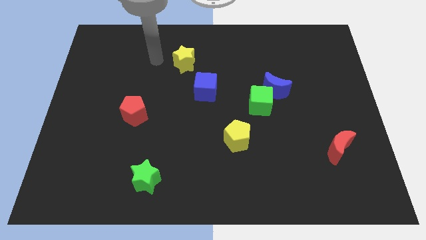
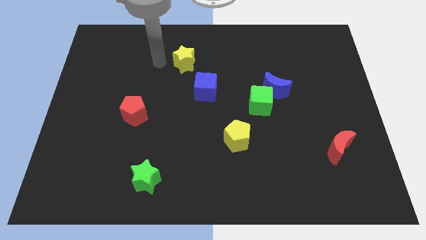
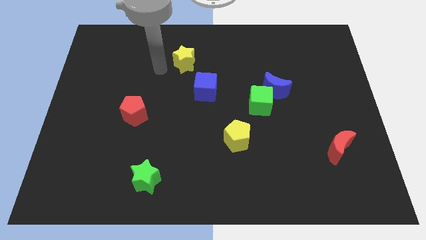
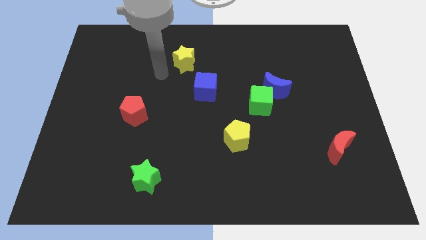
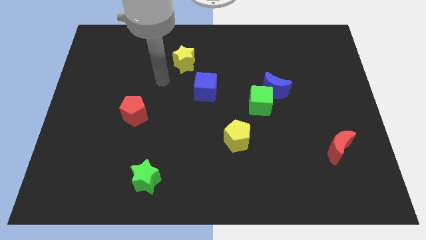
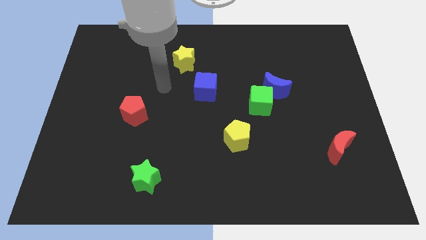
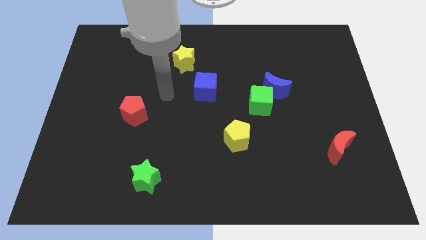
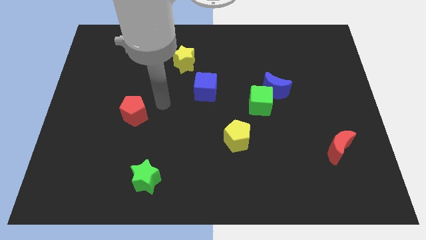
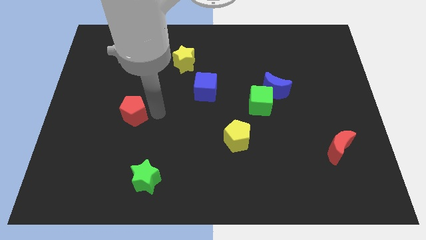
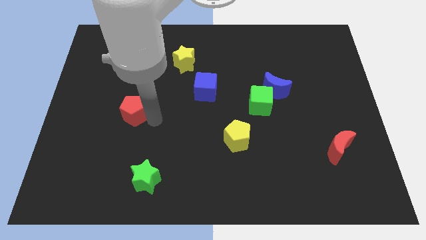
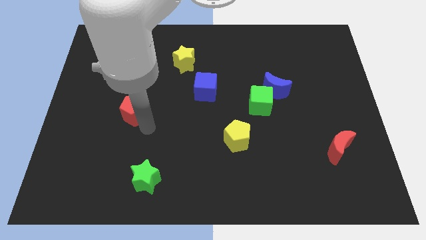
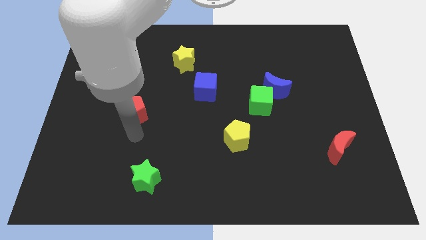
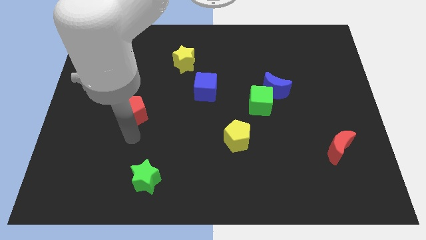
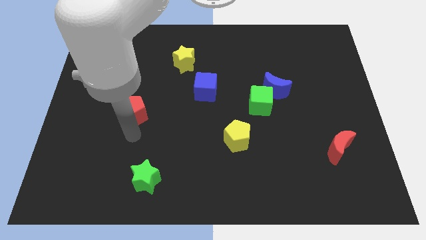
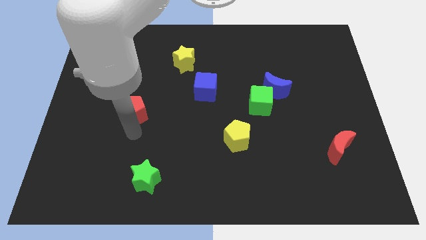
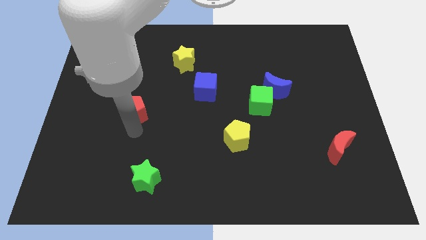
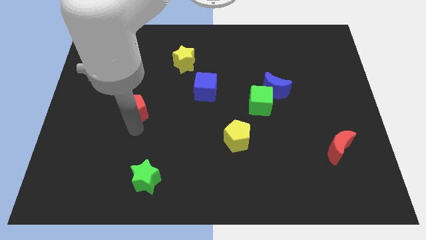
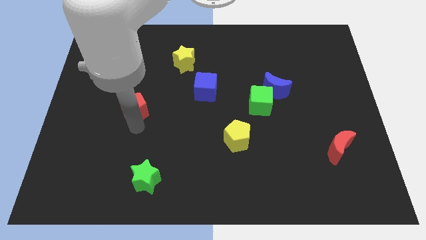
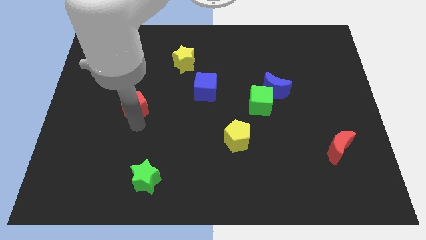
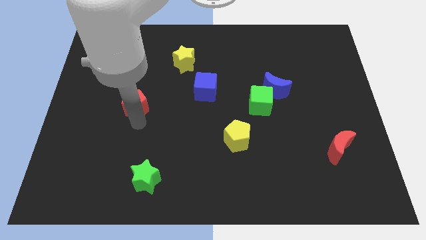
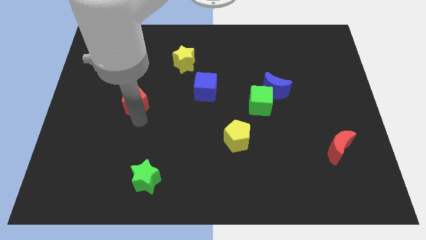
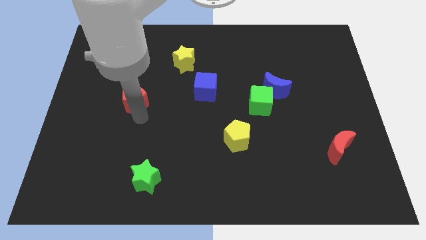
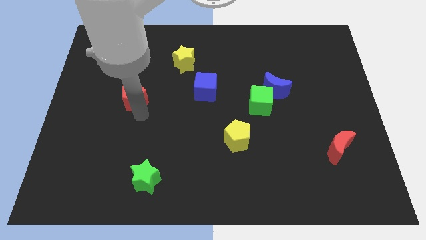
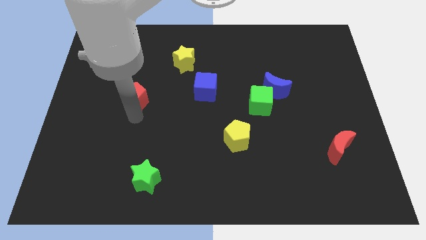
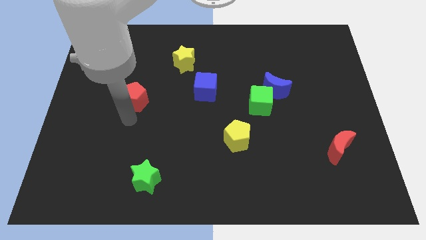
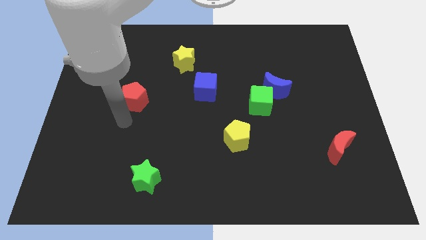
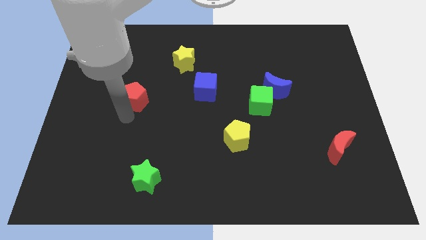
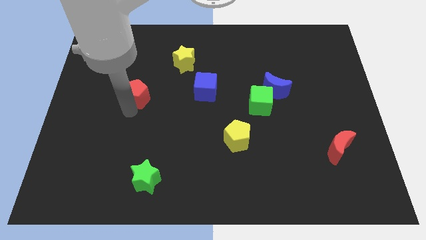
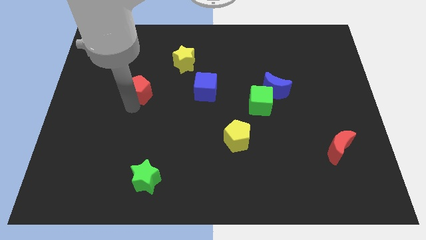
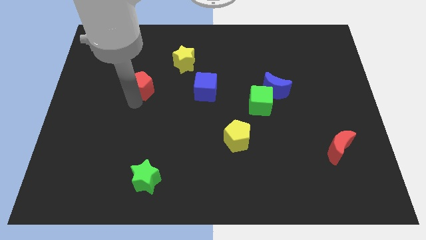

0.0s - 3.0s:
push the red pentagon a little upwards

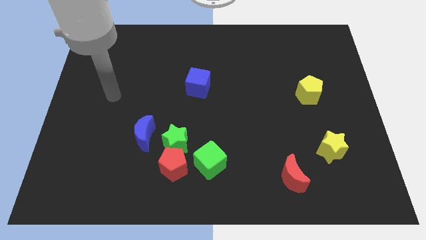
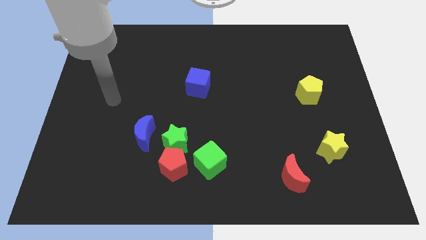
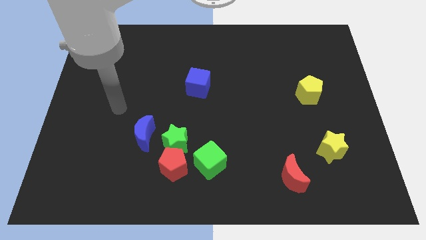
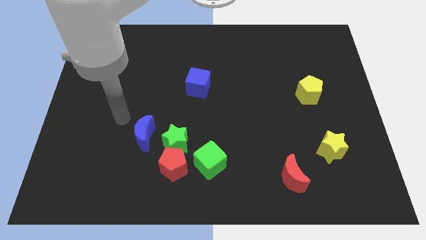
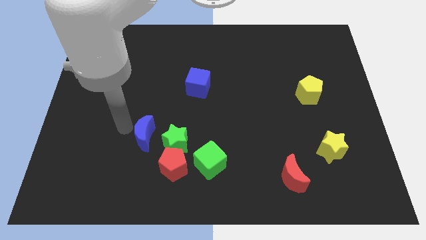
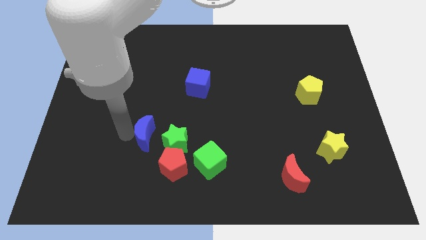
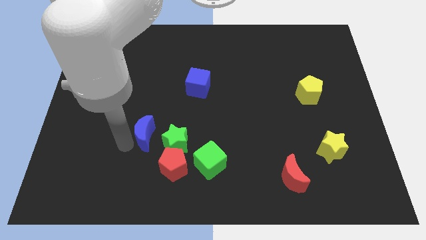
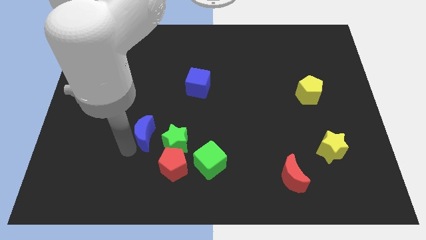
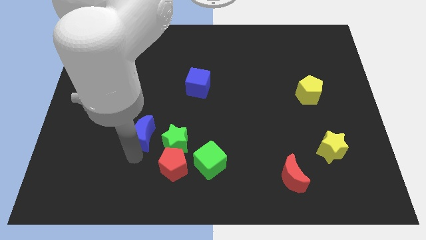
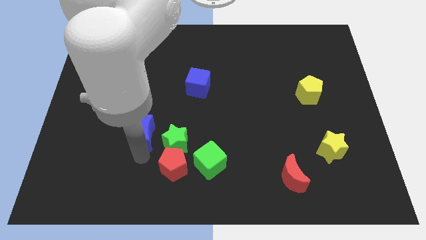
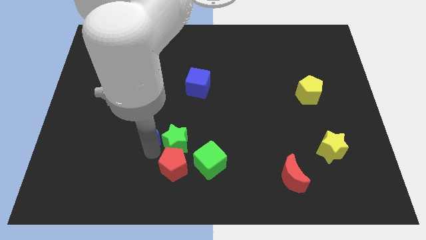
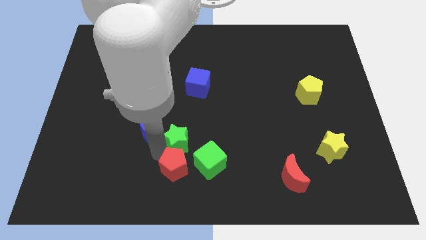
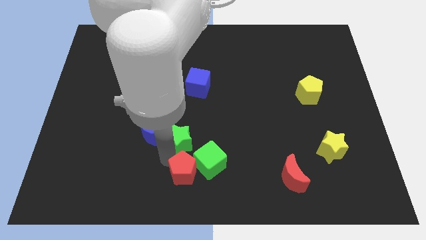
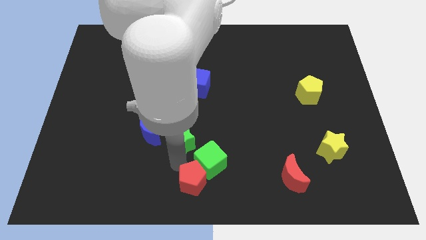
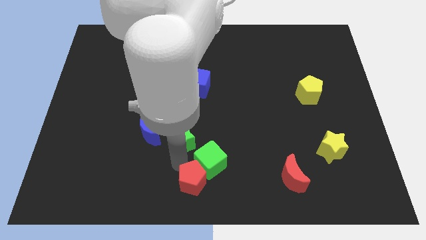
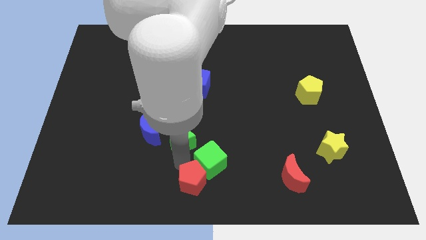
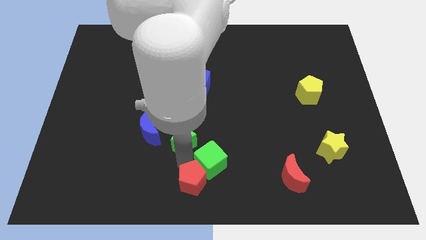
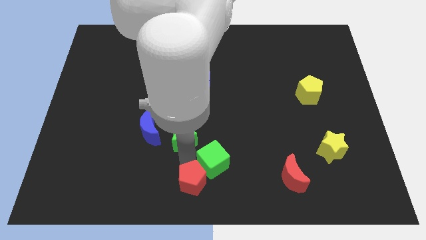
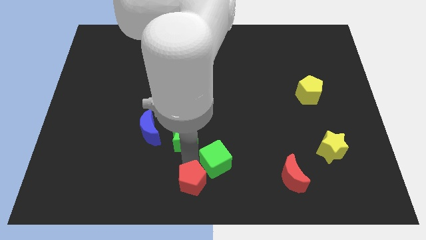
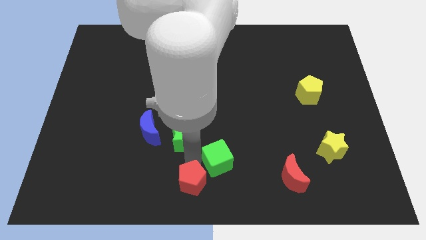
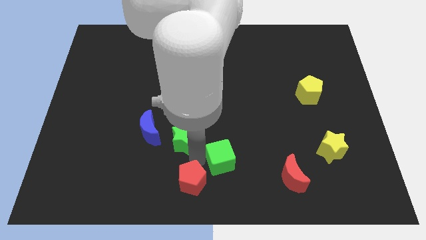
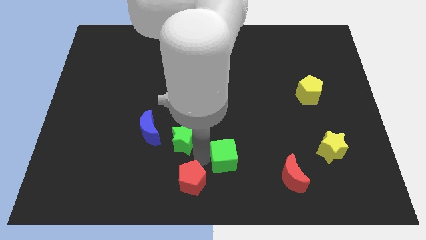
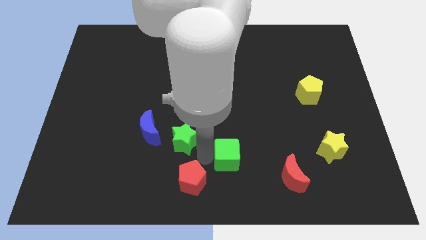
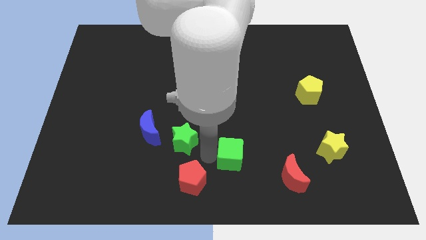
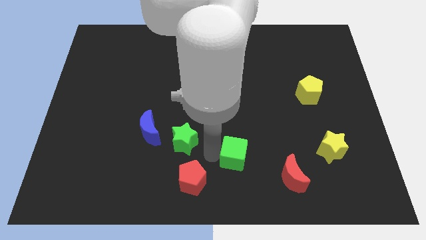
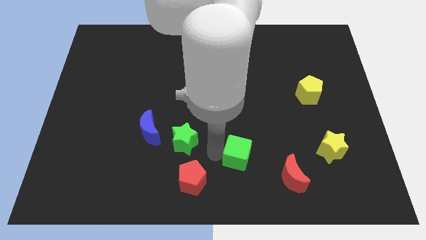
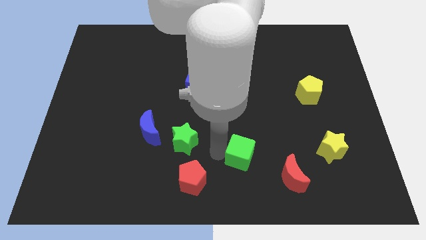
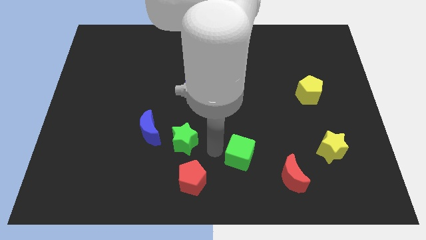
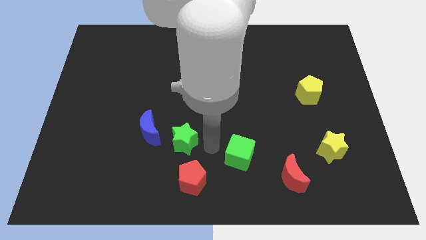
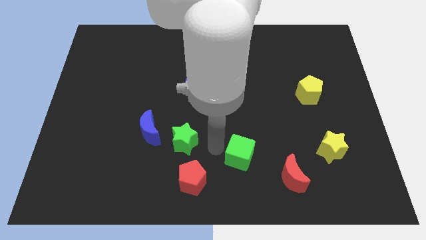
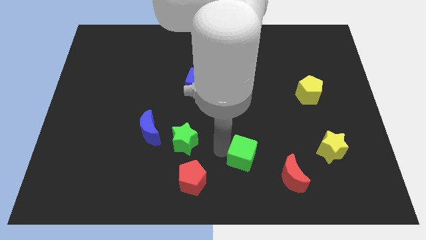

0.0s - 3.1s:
move the green cube to the right a little

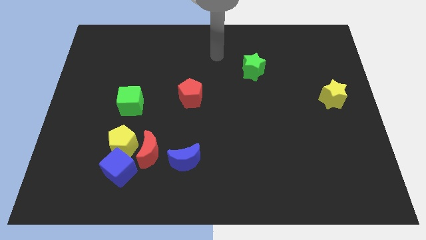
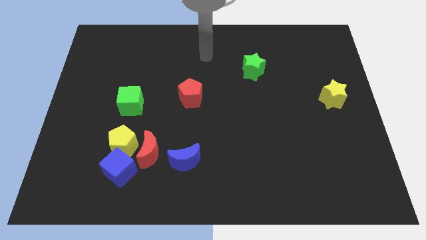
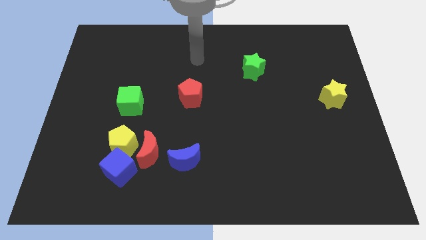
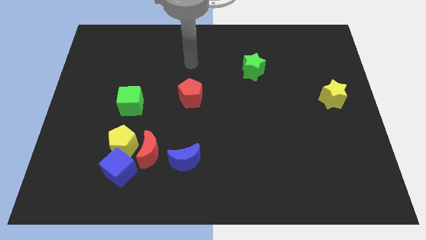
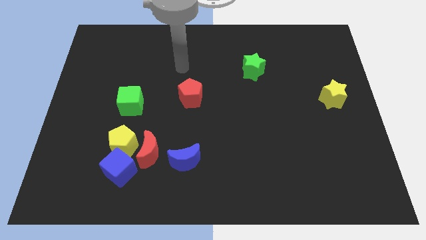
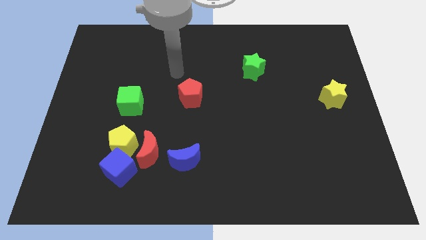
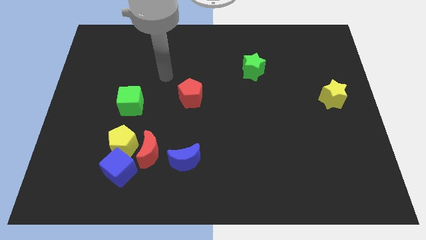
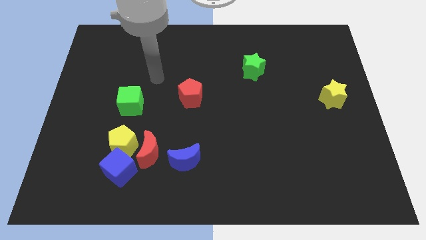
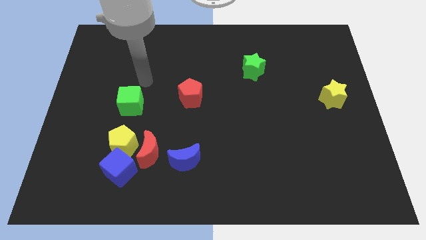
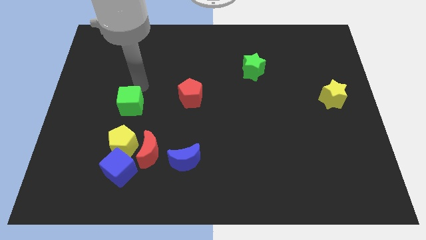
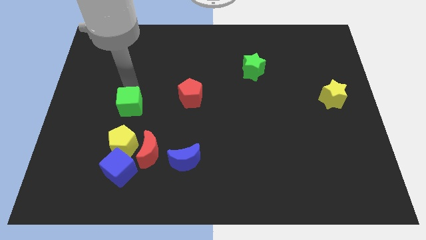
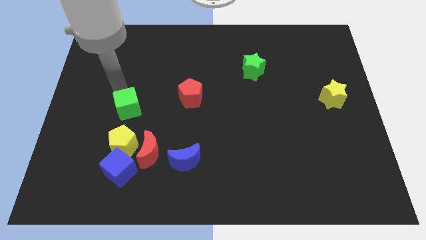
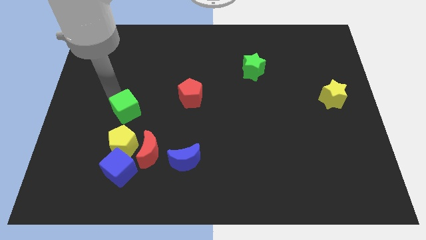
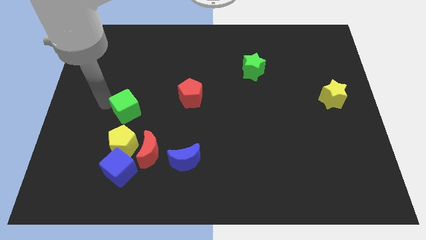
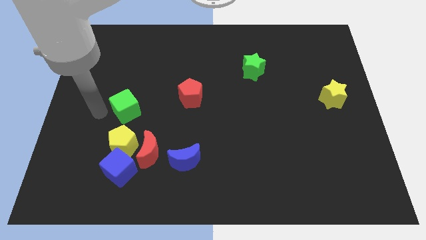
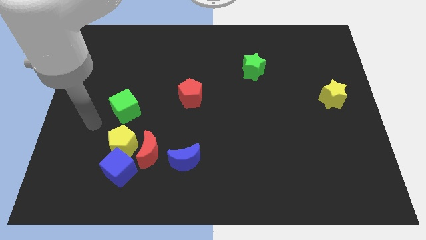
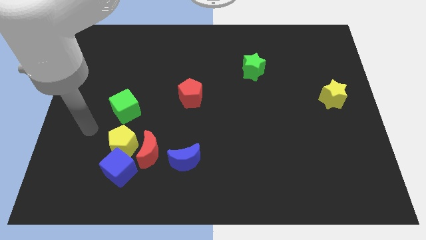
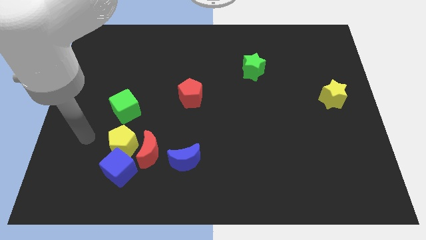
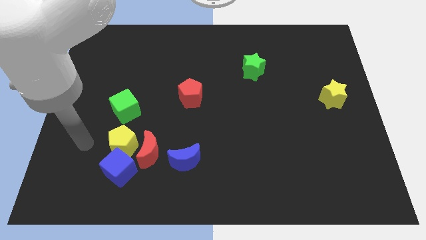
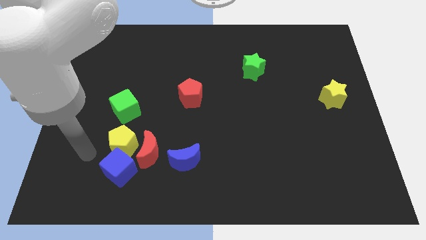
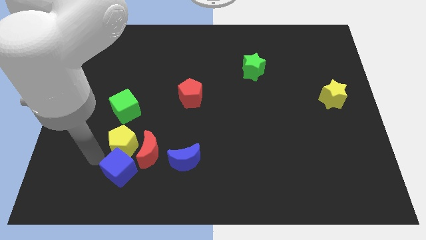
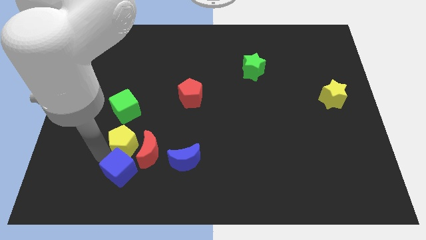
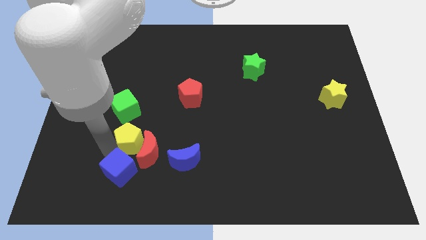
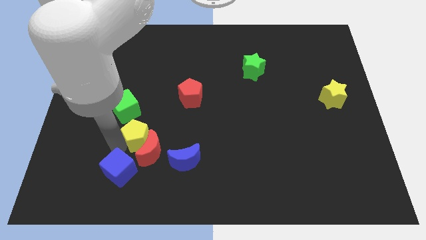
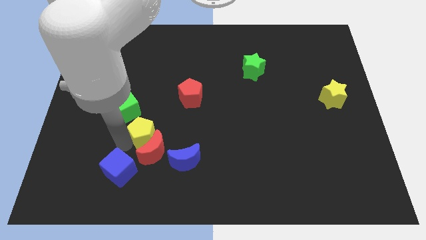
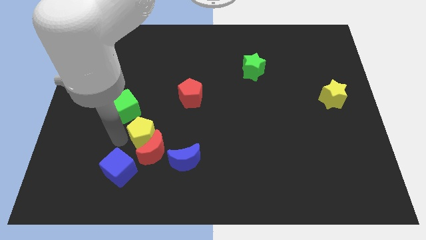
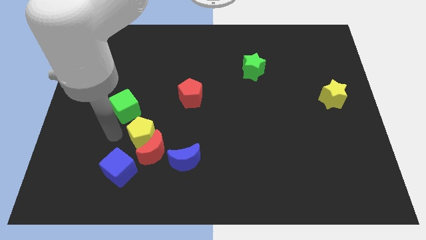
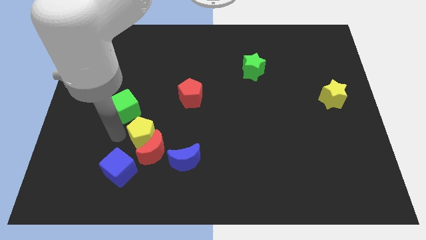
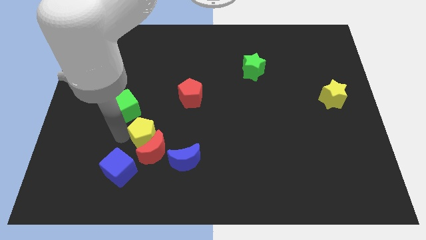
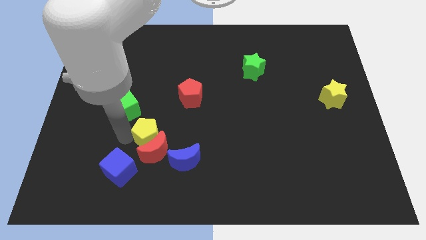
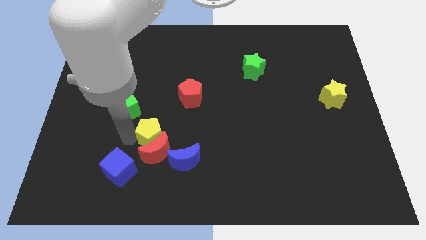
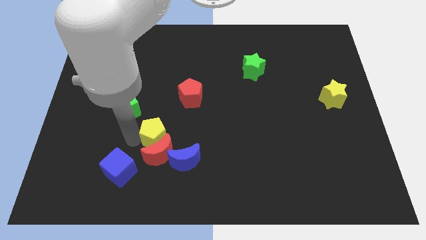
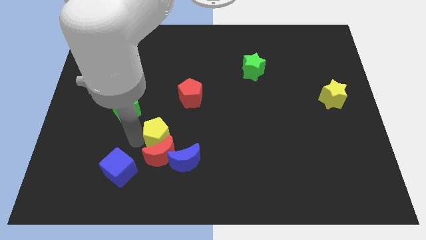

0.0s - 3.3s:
move the yellow pentagon to the right a little bit
